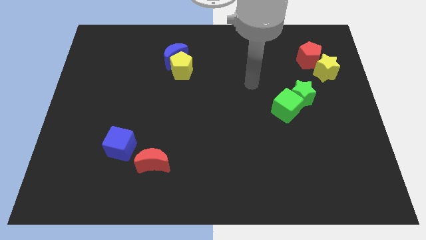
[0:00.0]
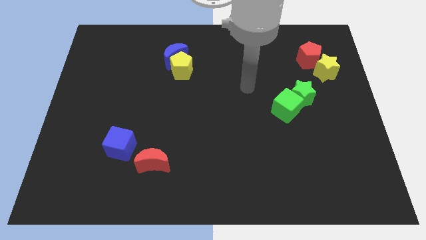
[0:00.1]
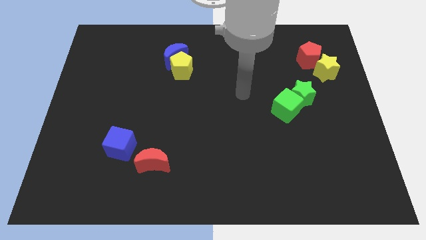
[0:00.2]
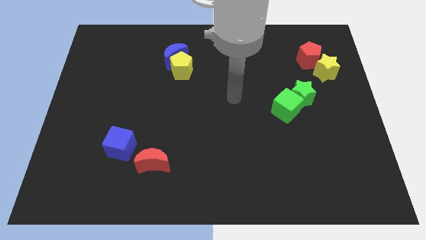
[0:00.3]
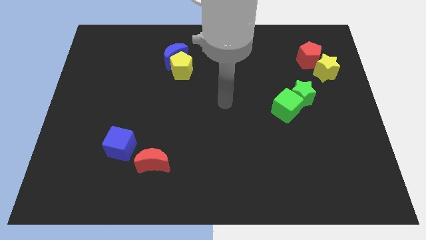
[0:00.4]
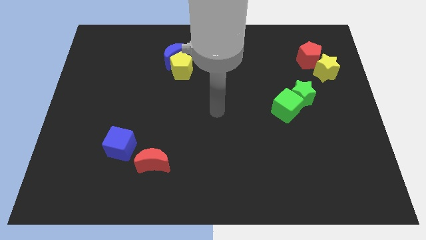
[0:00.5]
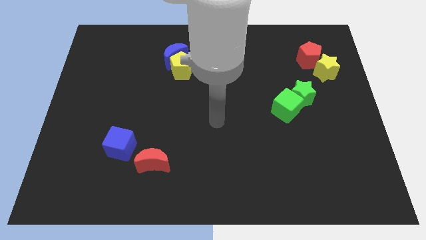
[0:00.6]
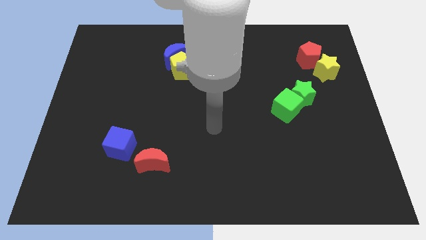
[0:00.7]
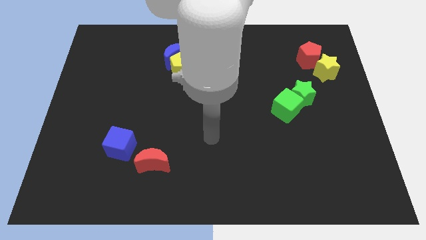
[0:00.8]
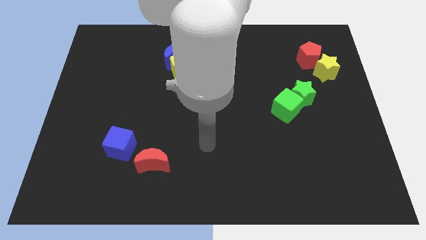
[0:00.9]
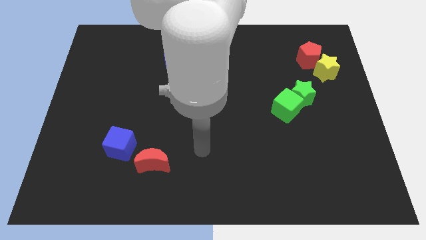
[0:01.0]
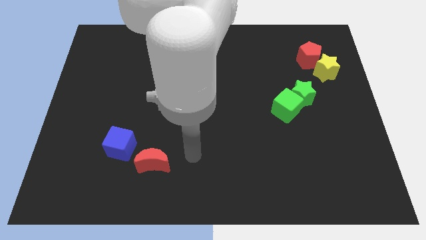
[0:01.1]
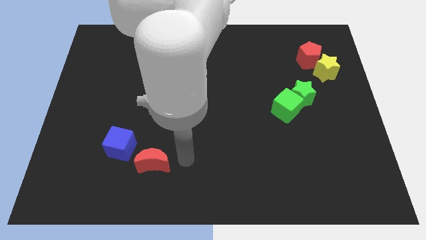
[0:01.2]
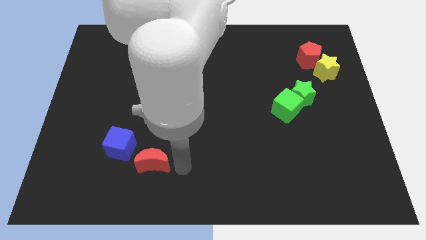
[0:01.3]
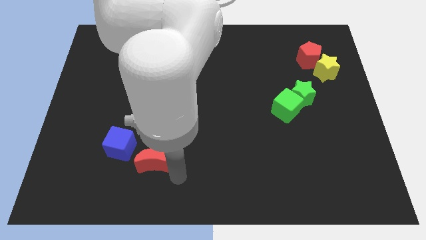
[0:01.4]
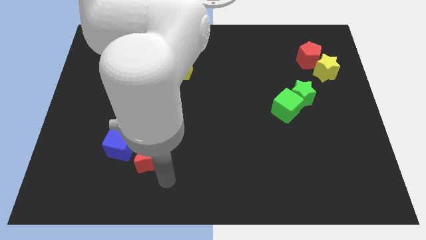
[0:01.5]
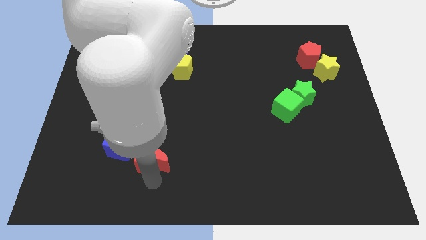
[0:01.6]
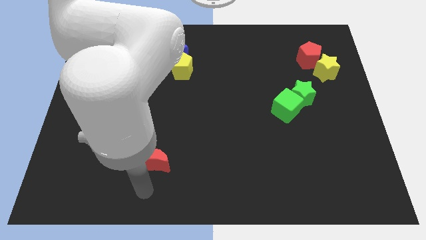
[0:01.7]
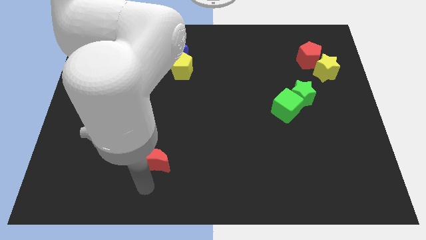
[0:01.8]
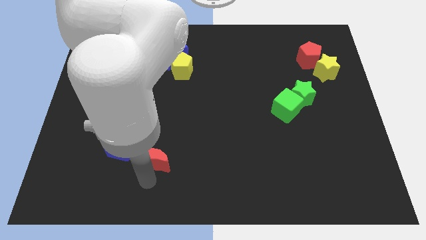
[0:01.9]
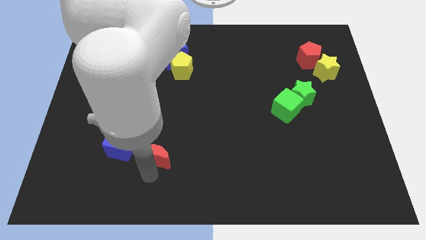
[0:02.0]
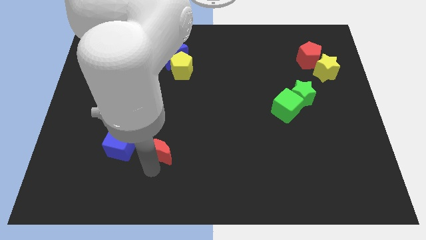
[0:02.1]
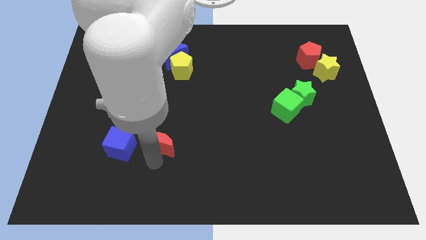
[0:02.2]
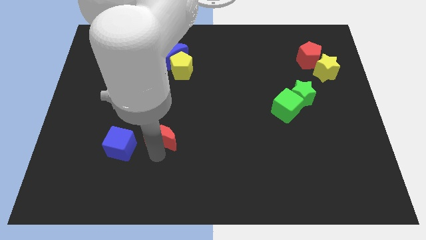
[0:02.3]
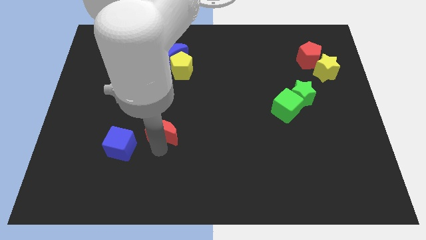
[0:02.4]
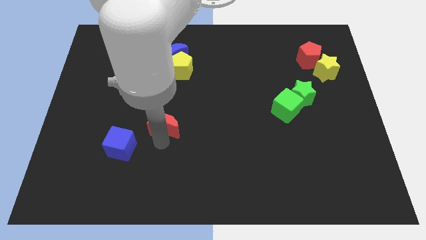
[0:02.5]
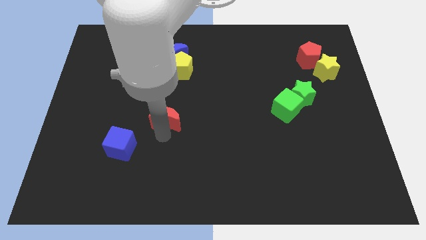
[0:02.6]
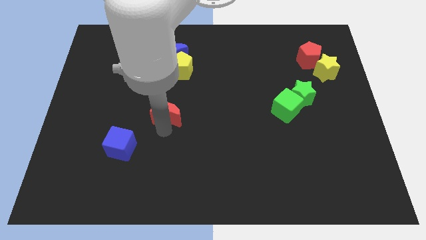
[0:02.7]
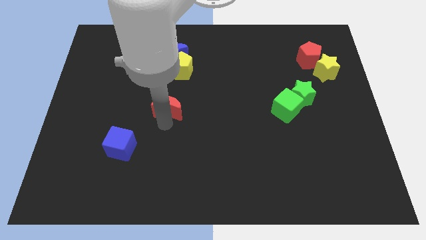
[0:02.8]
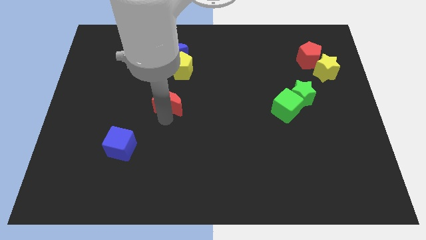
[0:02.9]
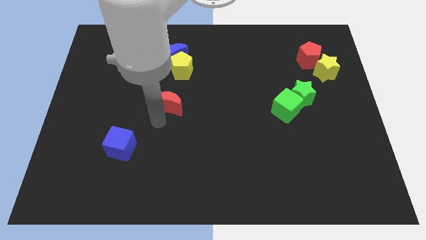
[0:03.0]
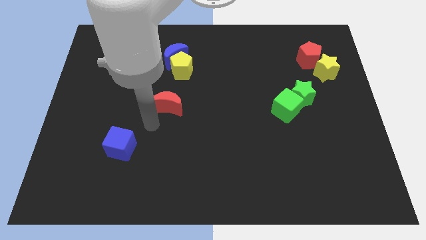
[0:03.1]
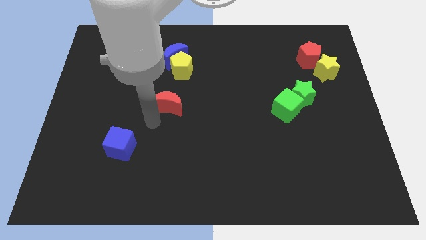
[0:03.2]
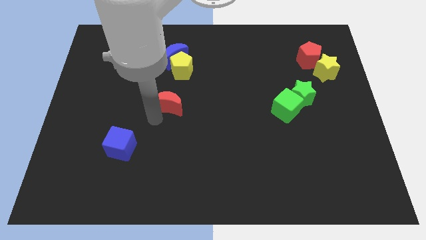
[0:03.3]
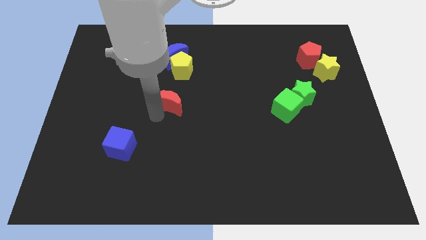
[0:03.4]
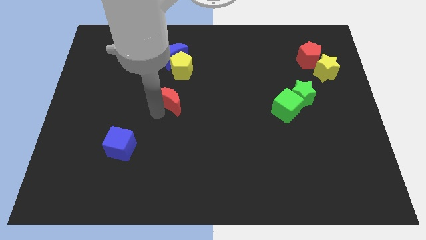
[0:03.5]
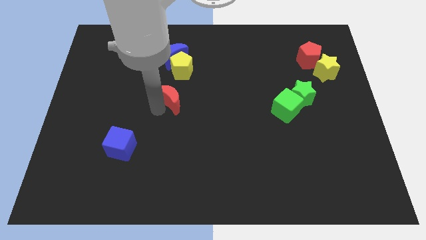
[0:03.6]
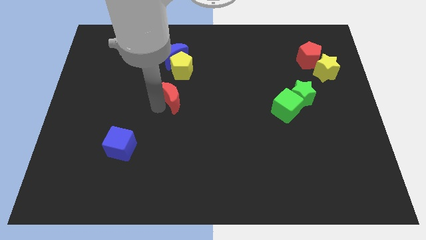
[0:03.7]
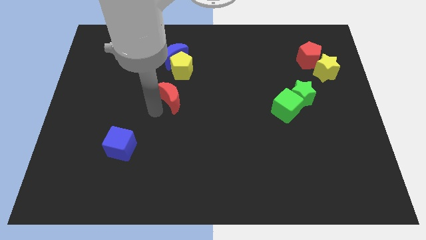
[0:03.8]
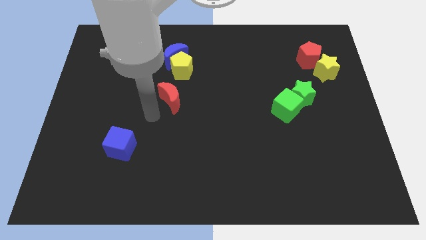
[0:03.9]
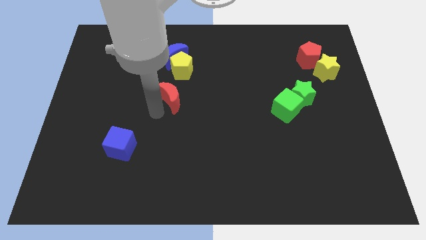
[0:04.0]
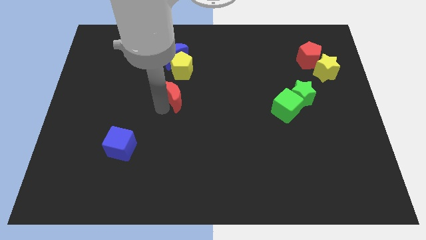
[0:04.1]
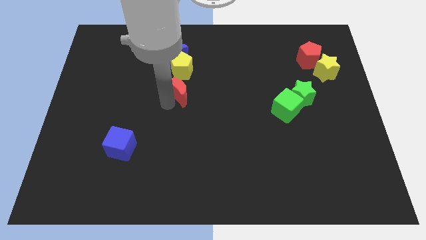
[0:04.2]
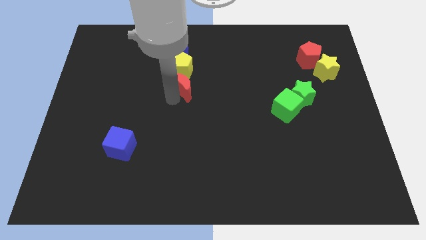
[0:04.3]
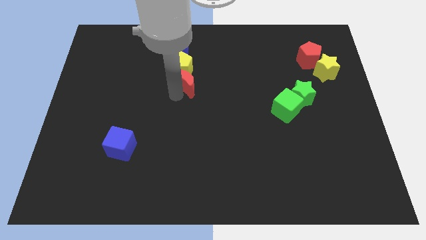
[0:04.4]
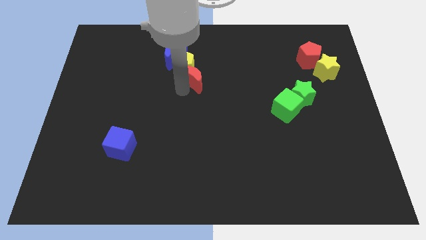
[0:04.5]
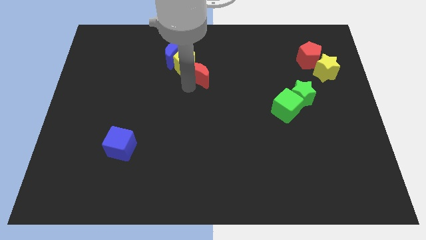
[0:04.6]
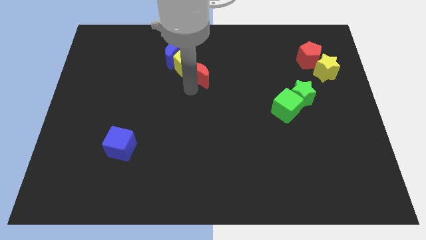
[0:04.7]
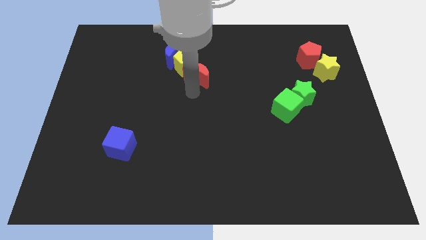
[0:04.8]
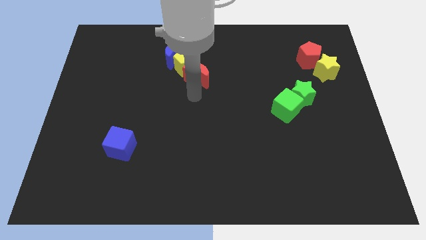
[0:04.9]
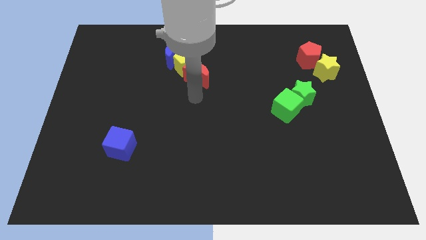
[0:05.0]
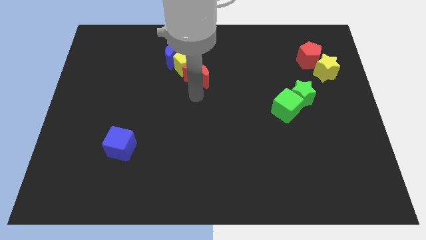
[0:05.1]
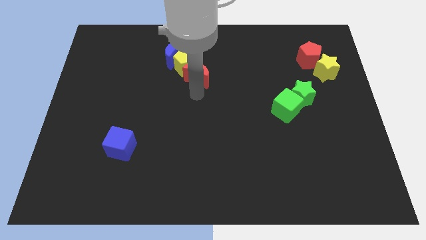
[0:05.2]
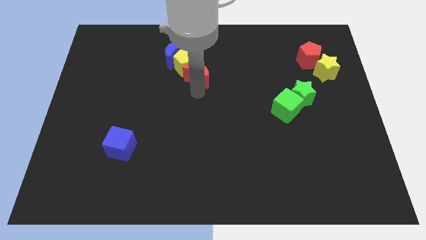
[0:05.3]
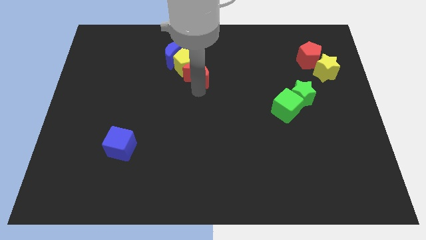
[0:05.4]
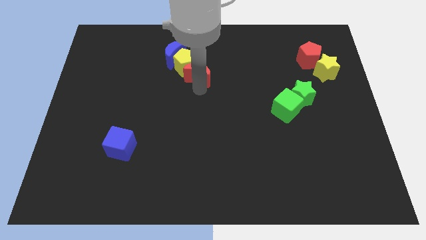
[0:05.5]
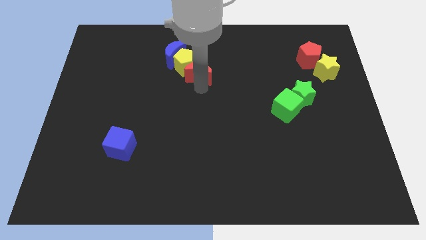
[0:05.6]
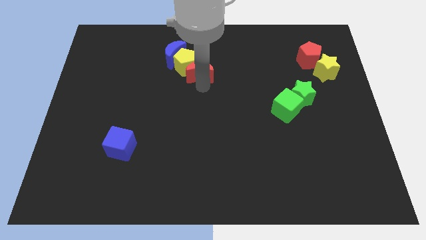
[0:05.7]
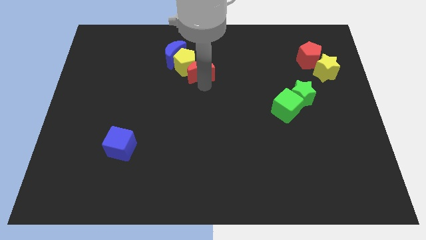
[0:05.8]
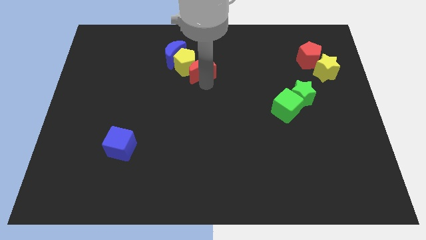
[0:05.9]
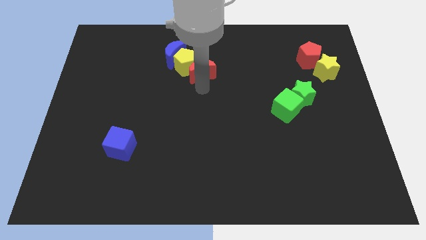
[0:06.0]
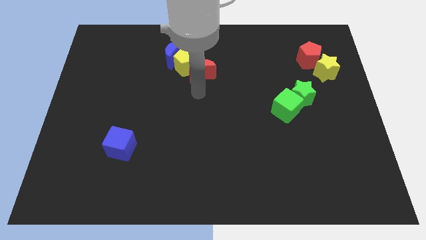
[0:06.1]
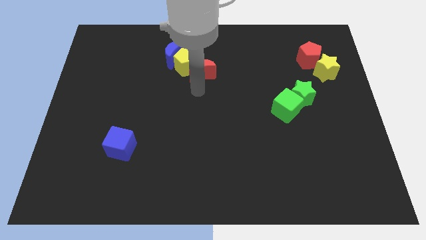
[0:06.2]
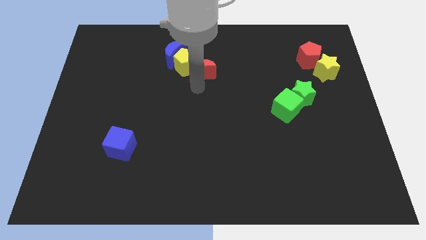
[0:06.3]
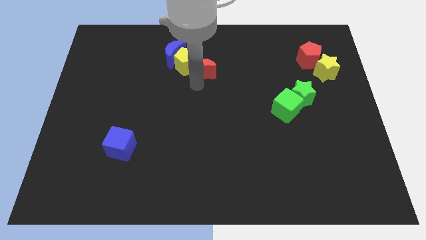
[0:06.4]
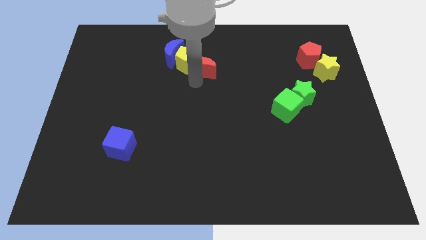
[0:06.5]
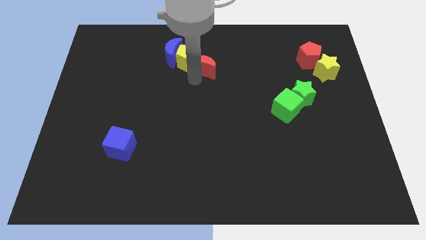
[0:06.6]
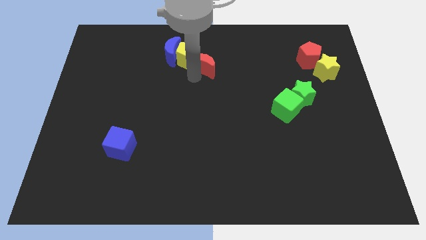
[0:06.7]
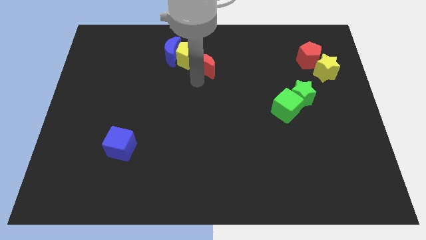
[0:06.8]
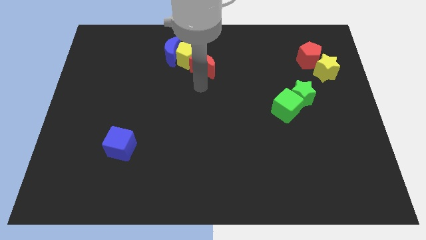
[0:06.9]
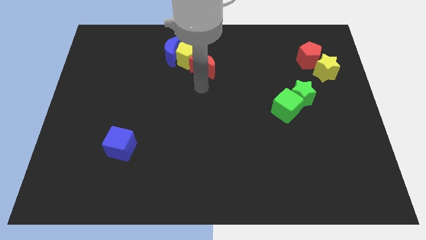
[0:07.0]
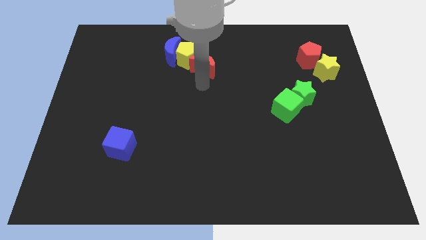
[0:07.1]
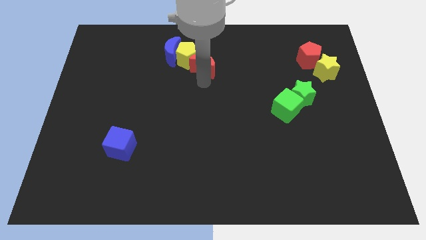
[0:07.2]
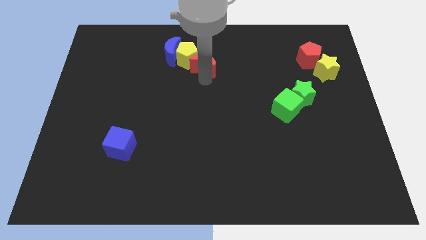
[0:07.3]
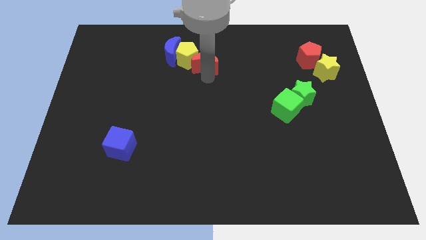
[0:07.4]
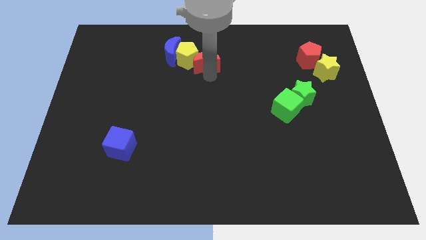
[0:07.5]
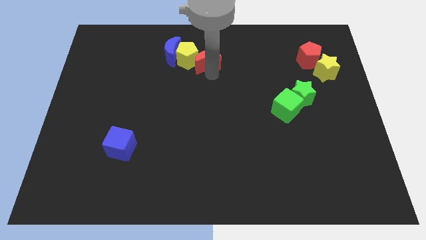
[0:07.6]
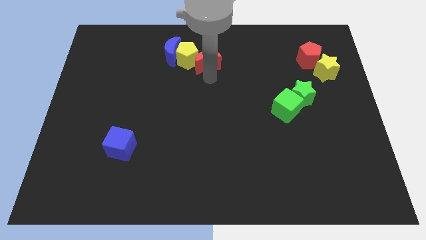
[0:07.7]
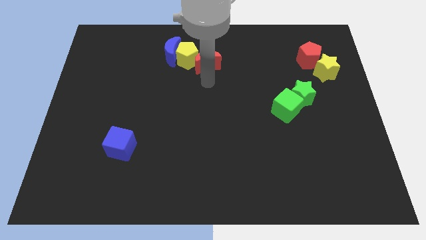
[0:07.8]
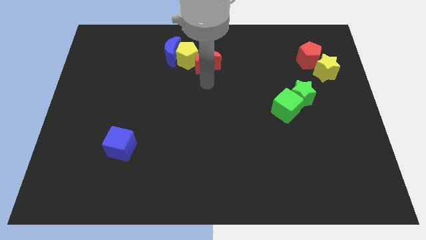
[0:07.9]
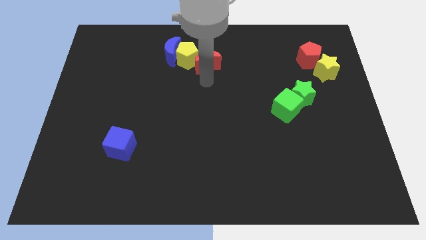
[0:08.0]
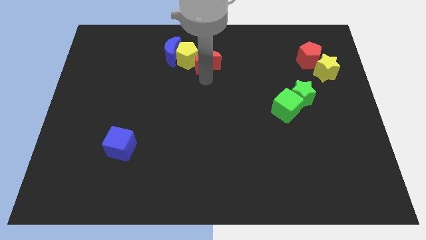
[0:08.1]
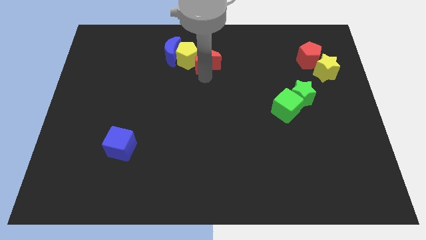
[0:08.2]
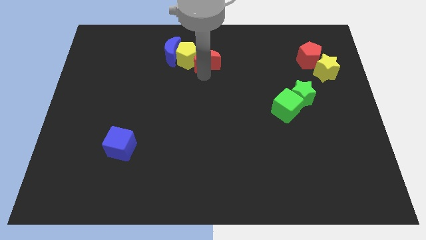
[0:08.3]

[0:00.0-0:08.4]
push the red moon to the top right of the yellow pentagon
